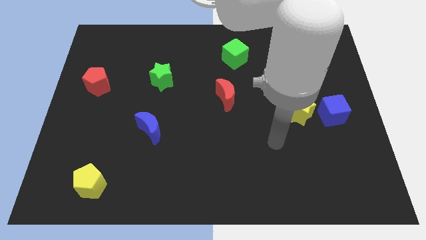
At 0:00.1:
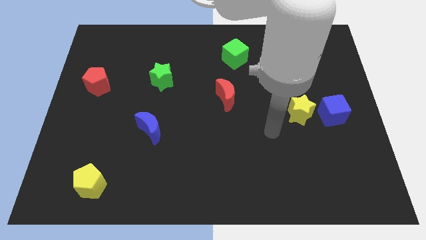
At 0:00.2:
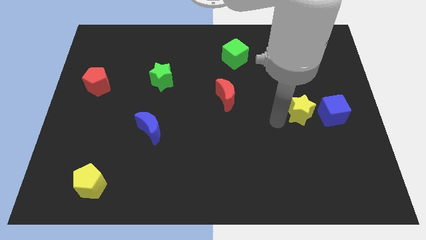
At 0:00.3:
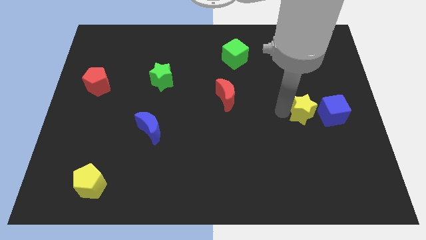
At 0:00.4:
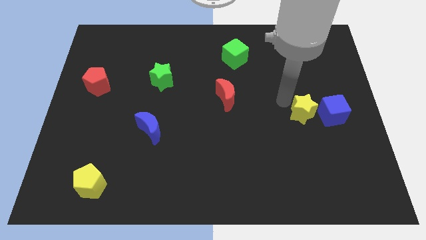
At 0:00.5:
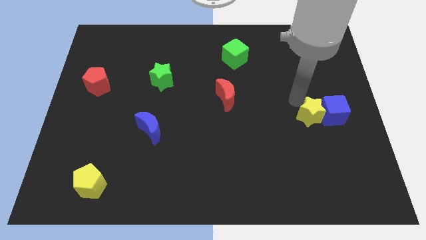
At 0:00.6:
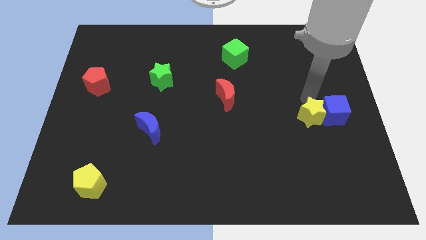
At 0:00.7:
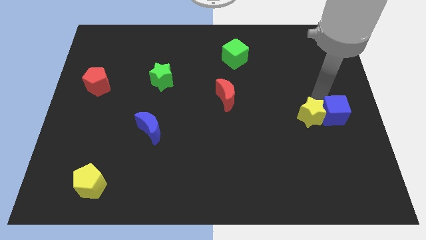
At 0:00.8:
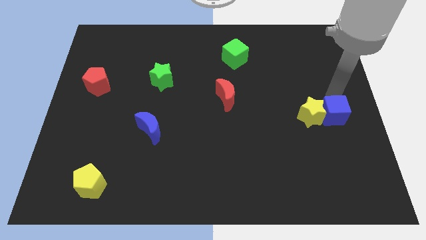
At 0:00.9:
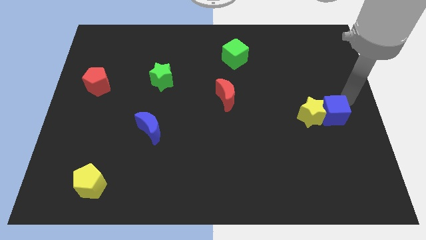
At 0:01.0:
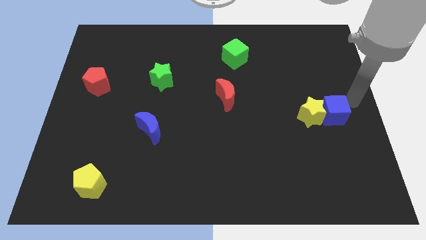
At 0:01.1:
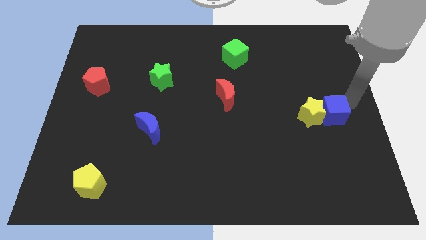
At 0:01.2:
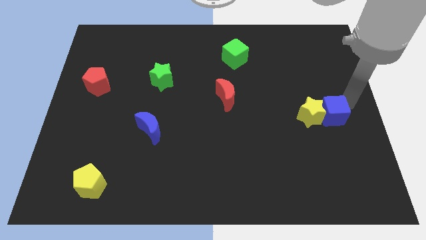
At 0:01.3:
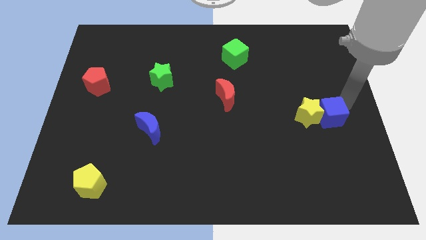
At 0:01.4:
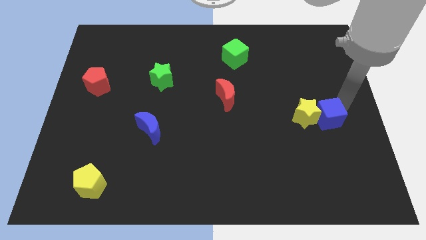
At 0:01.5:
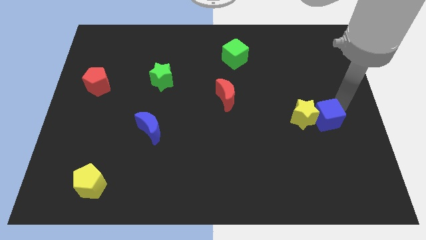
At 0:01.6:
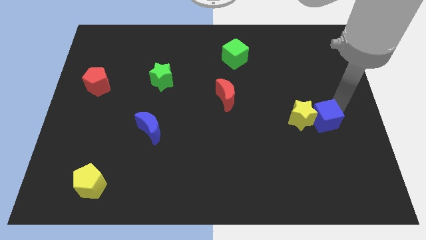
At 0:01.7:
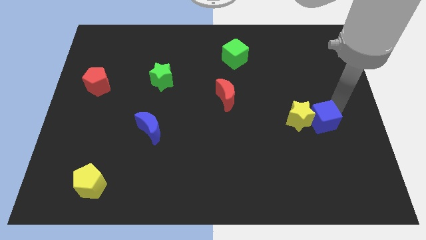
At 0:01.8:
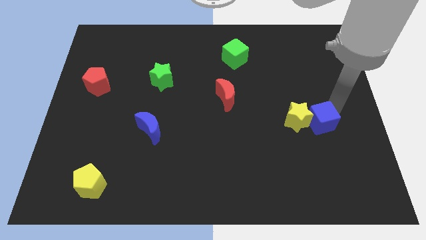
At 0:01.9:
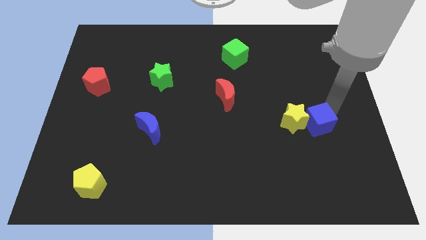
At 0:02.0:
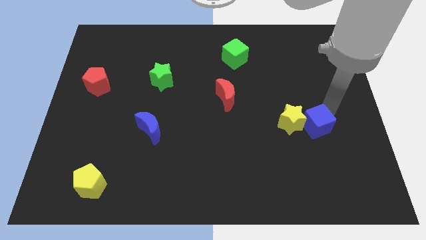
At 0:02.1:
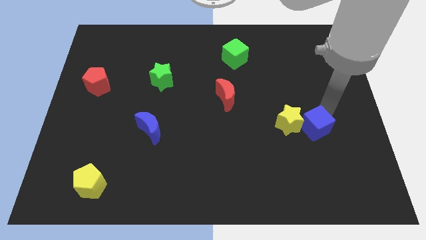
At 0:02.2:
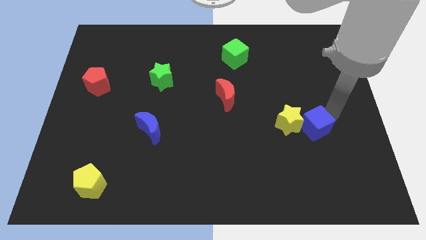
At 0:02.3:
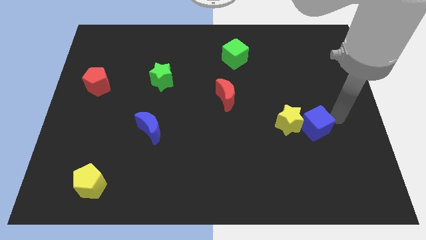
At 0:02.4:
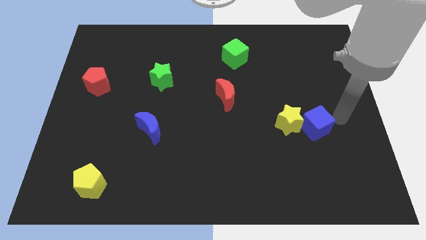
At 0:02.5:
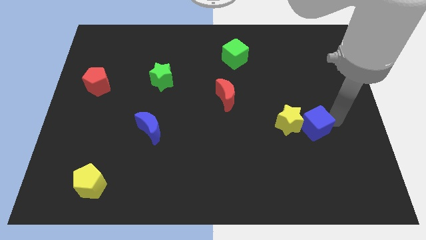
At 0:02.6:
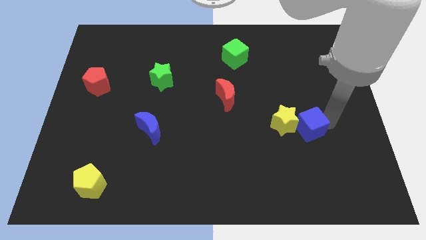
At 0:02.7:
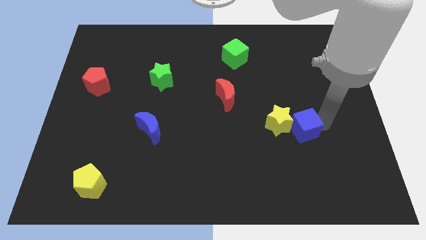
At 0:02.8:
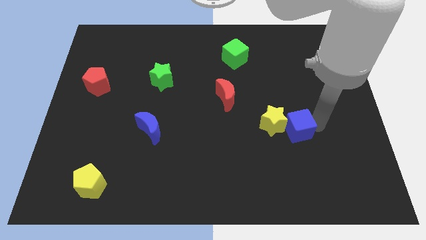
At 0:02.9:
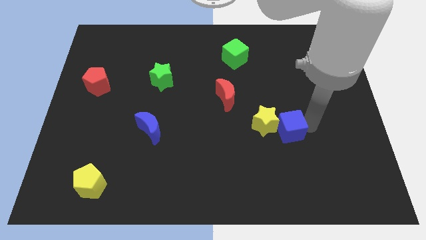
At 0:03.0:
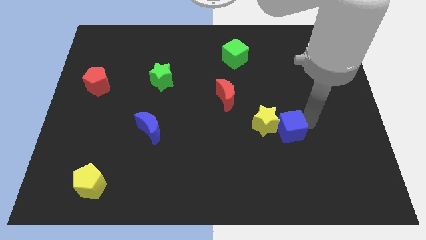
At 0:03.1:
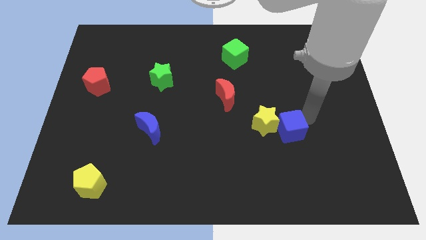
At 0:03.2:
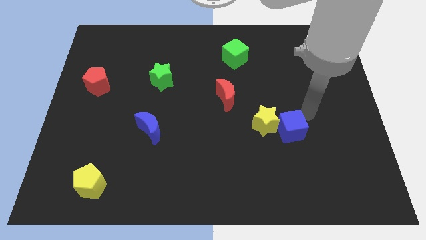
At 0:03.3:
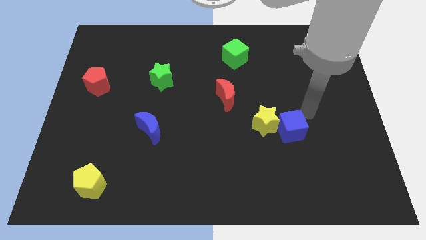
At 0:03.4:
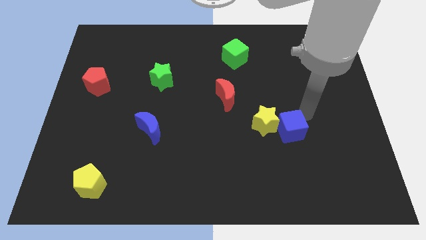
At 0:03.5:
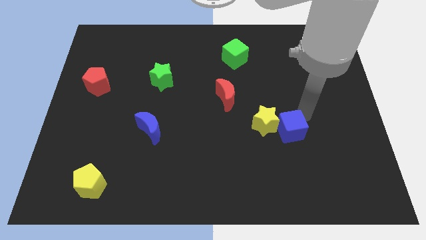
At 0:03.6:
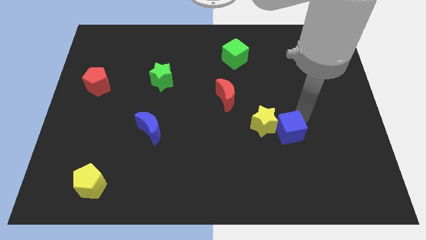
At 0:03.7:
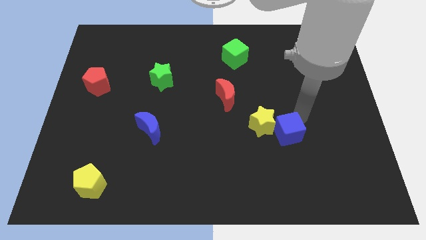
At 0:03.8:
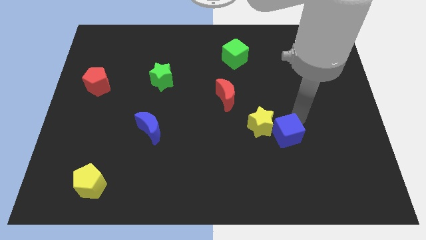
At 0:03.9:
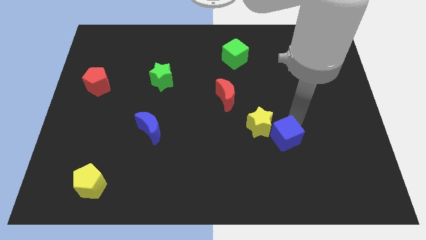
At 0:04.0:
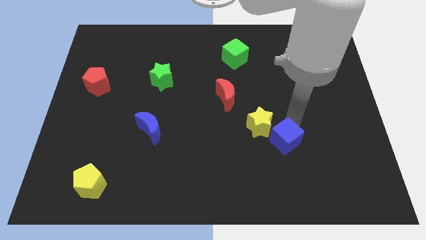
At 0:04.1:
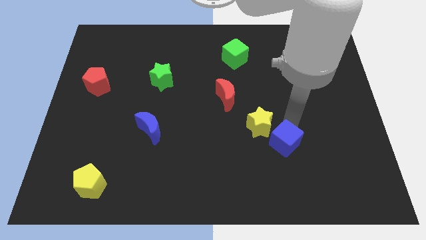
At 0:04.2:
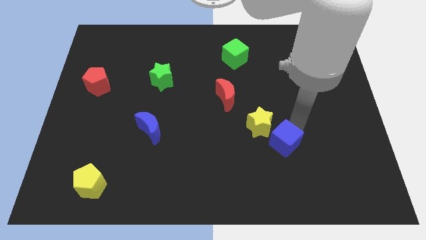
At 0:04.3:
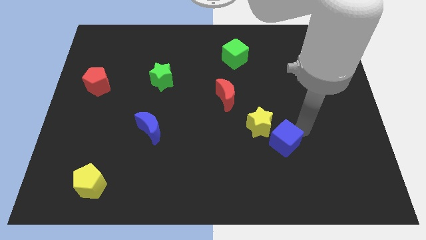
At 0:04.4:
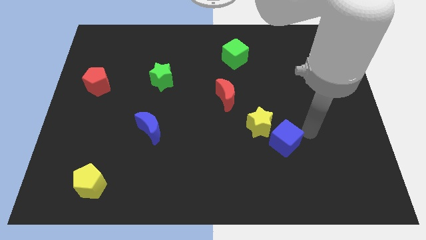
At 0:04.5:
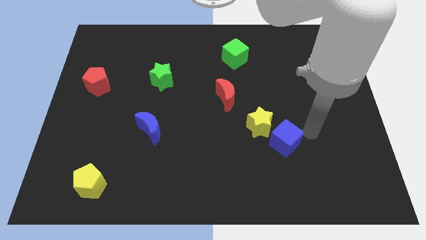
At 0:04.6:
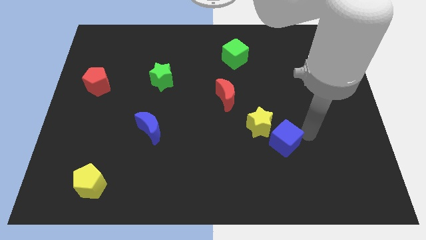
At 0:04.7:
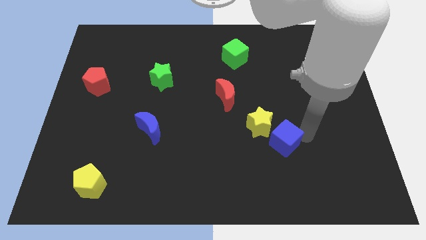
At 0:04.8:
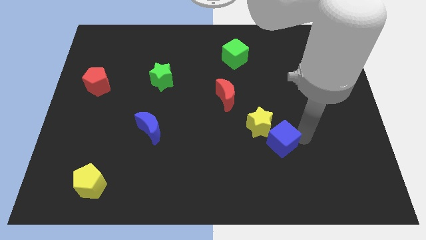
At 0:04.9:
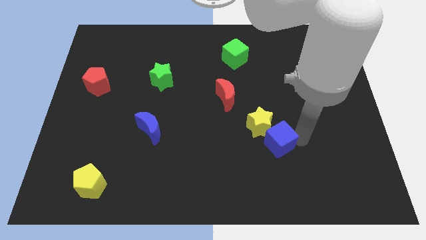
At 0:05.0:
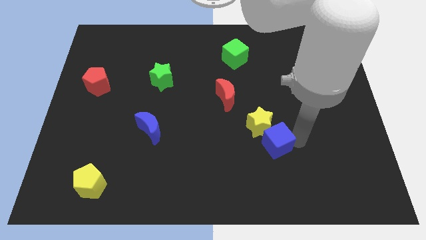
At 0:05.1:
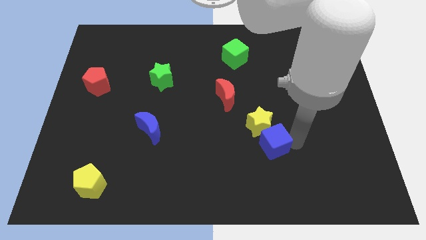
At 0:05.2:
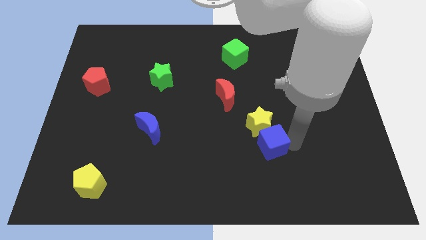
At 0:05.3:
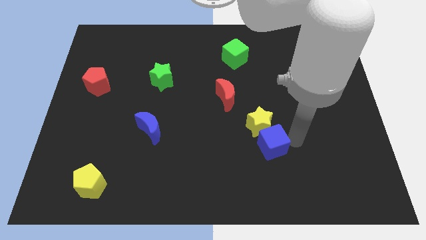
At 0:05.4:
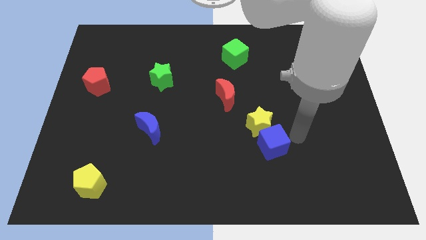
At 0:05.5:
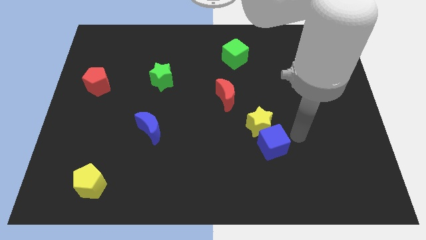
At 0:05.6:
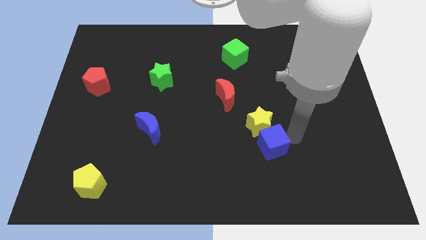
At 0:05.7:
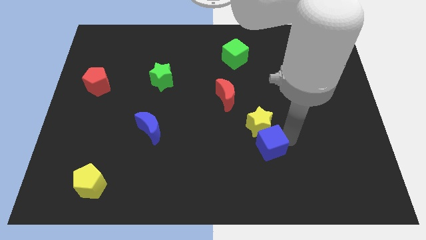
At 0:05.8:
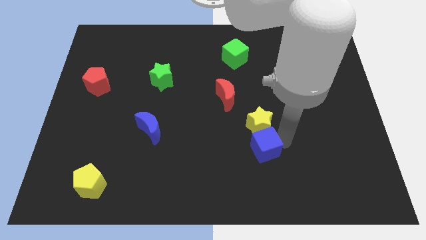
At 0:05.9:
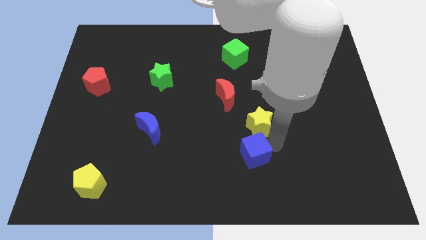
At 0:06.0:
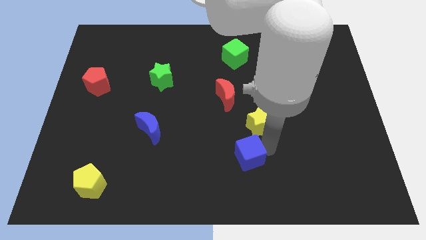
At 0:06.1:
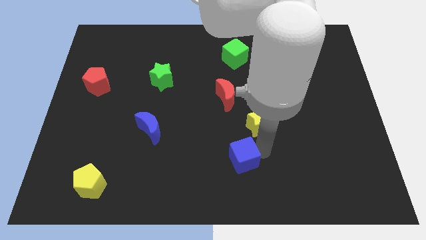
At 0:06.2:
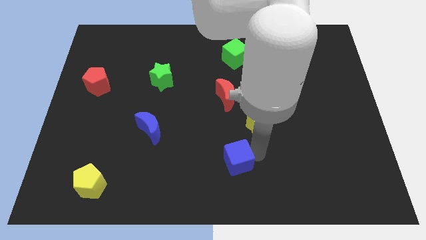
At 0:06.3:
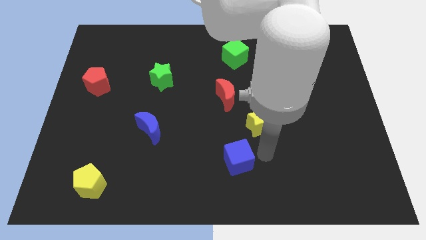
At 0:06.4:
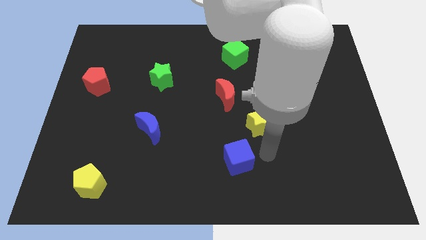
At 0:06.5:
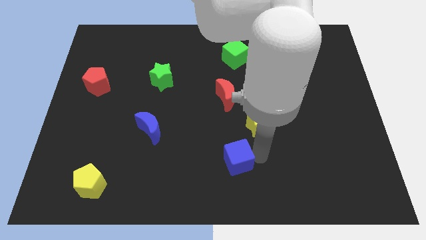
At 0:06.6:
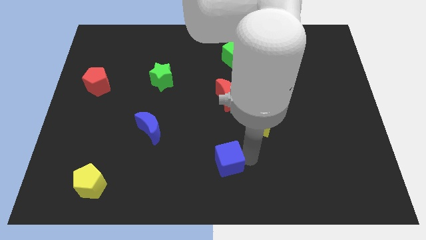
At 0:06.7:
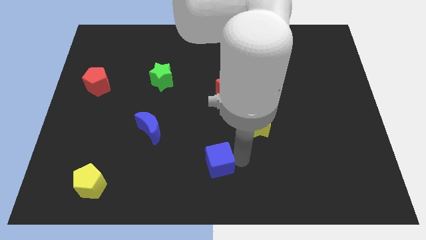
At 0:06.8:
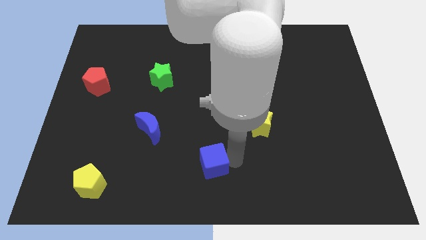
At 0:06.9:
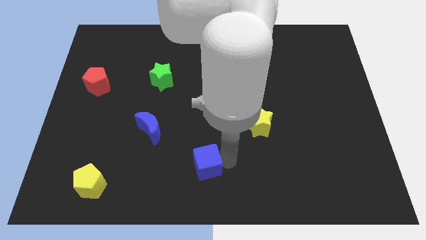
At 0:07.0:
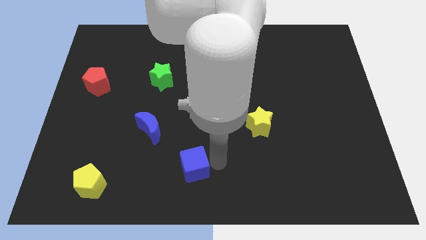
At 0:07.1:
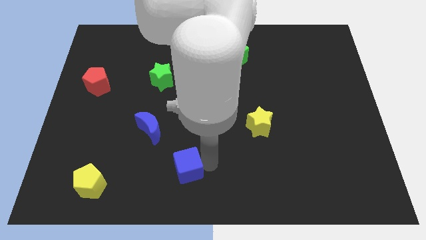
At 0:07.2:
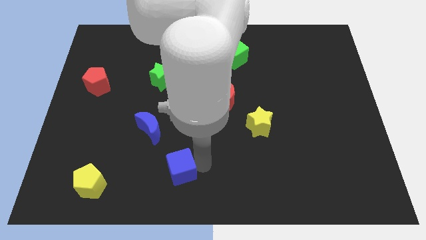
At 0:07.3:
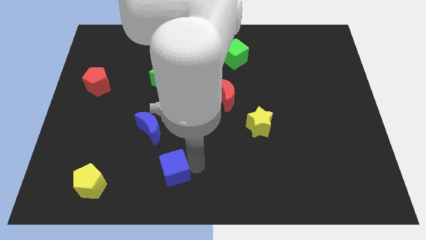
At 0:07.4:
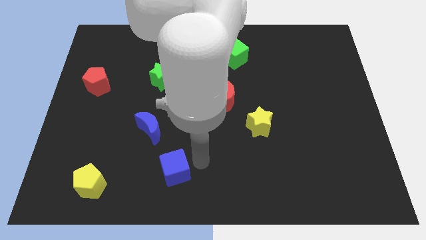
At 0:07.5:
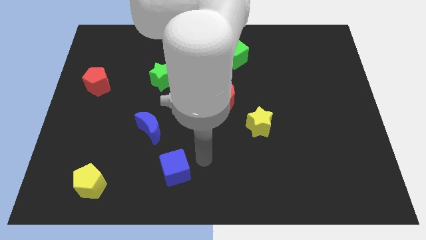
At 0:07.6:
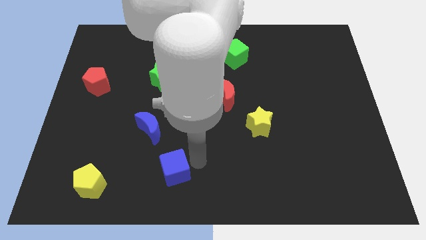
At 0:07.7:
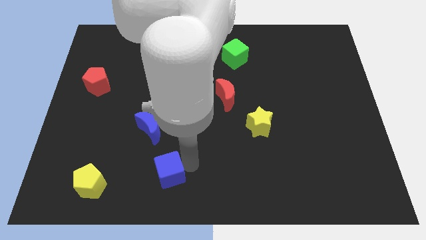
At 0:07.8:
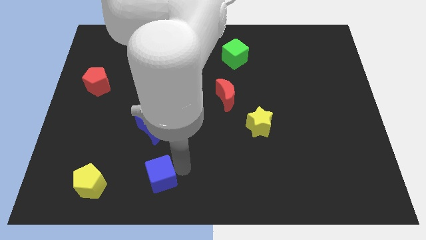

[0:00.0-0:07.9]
put the blue cube to the right of the yellow pentagon

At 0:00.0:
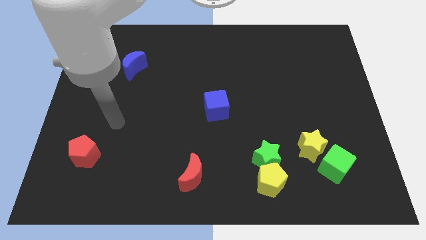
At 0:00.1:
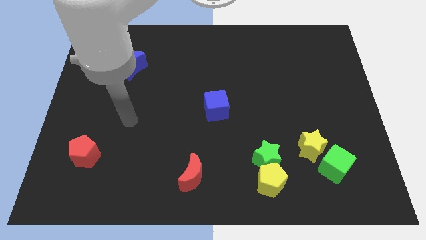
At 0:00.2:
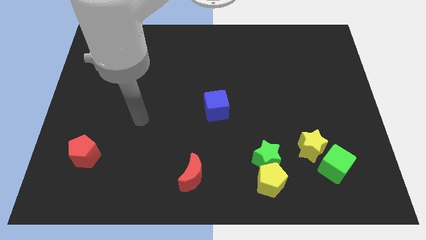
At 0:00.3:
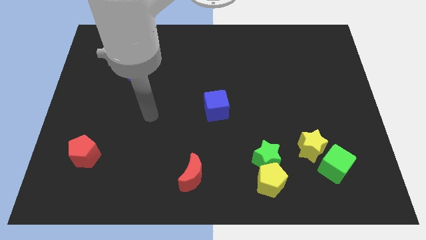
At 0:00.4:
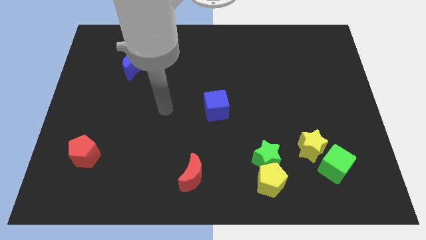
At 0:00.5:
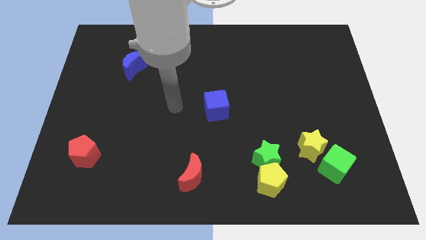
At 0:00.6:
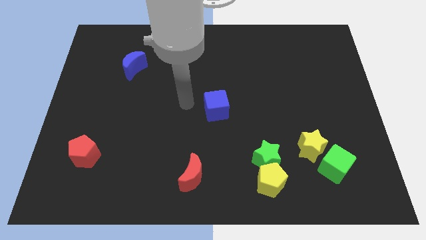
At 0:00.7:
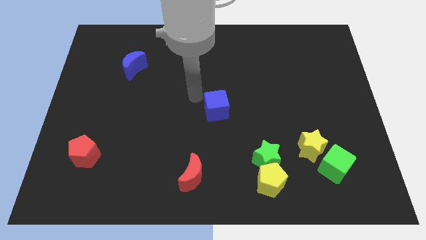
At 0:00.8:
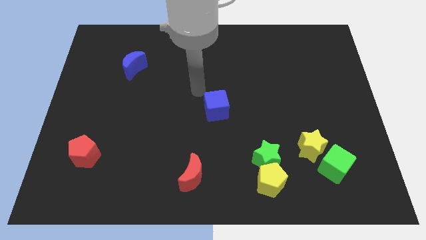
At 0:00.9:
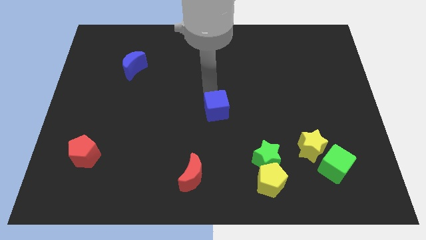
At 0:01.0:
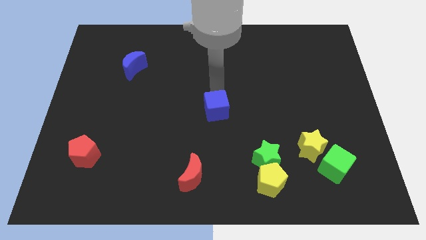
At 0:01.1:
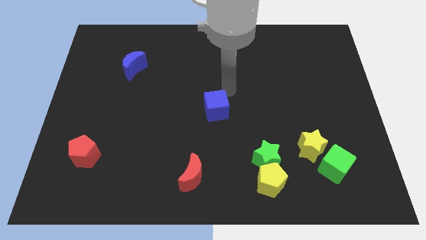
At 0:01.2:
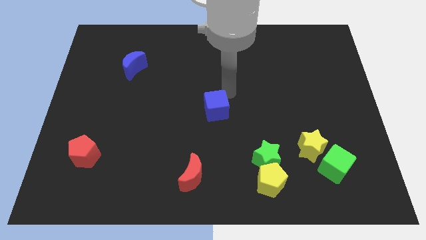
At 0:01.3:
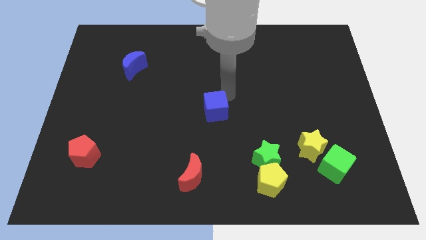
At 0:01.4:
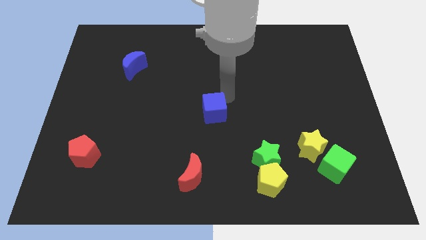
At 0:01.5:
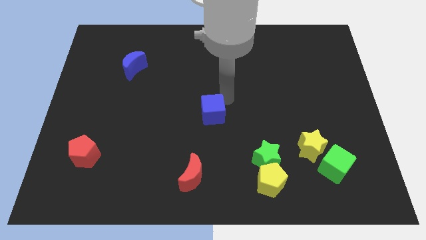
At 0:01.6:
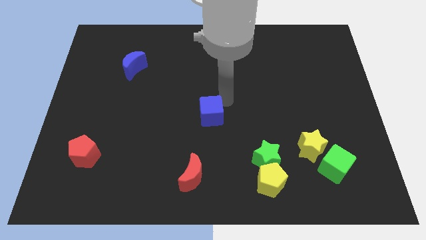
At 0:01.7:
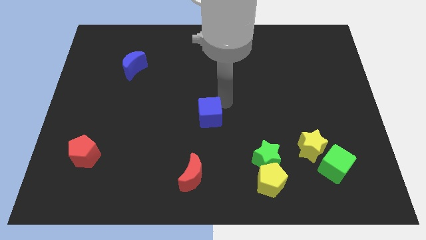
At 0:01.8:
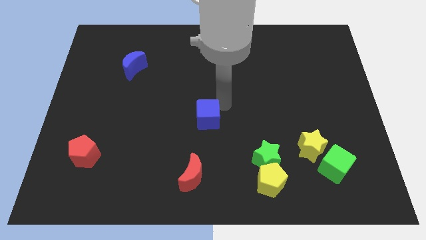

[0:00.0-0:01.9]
move the blue cube above the red moon
